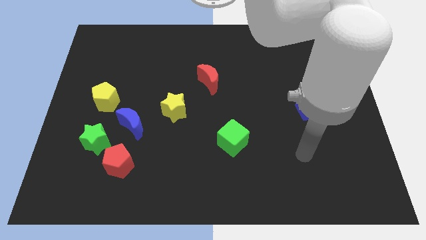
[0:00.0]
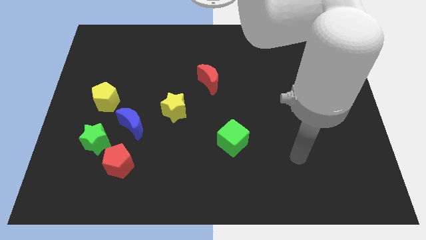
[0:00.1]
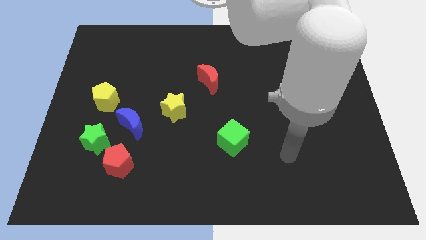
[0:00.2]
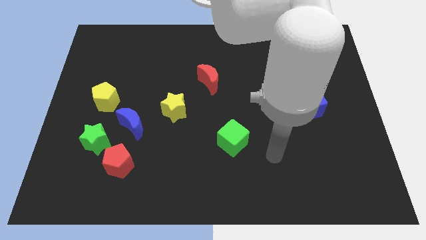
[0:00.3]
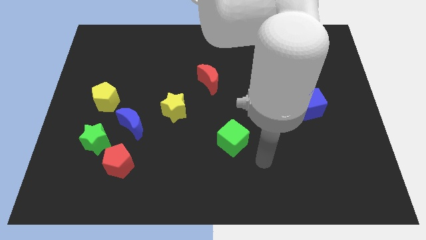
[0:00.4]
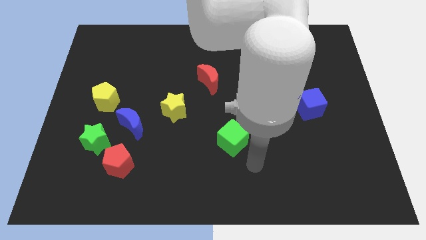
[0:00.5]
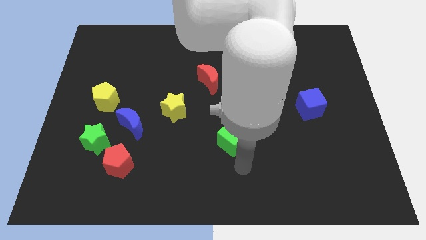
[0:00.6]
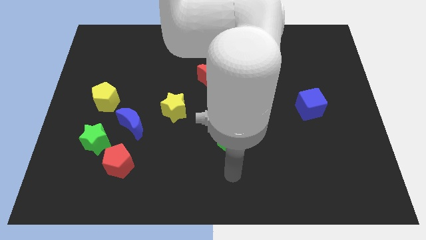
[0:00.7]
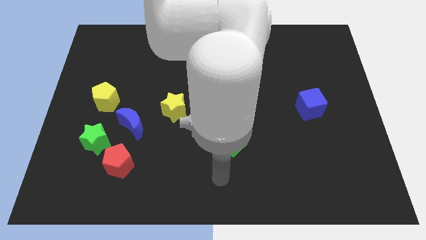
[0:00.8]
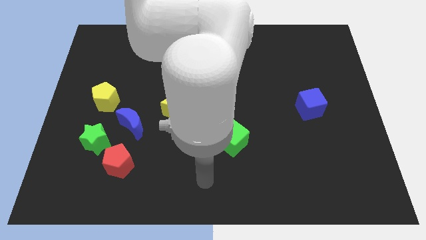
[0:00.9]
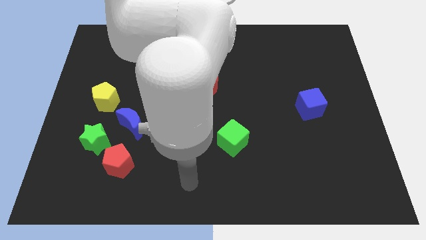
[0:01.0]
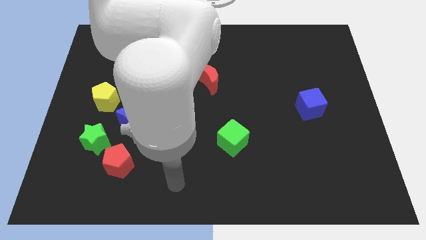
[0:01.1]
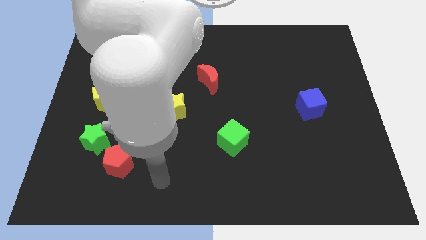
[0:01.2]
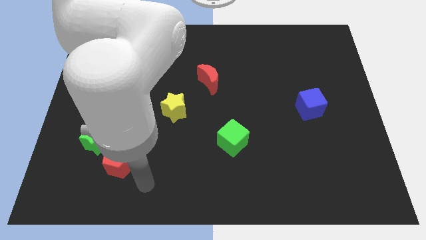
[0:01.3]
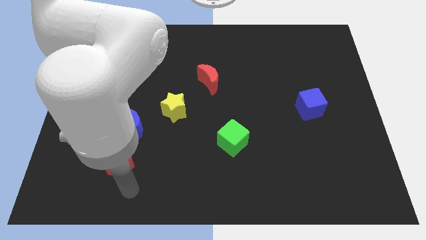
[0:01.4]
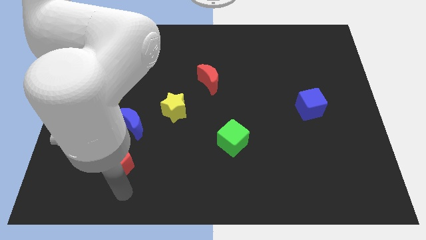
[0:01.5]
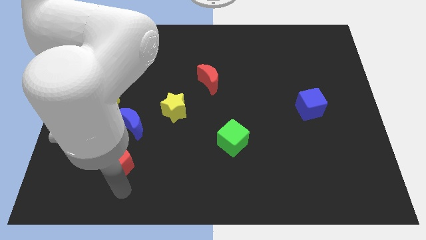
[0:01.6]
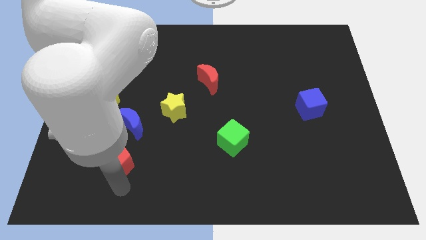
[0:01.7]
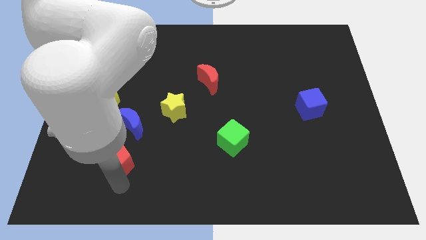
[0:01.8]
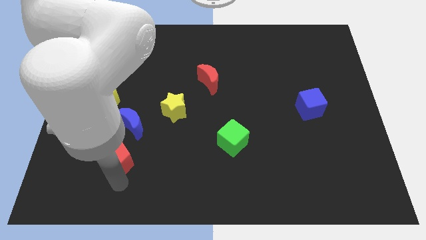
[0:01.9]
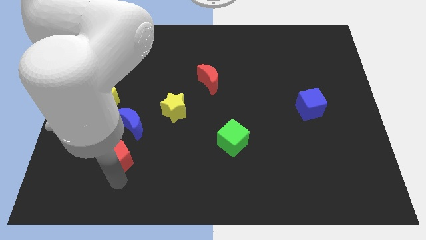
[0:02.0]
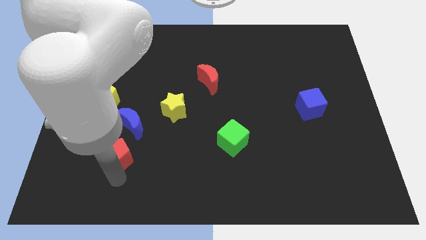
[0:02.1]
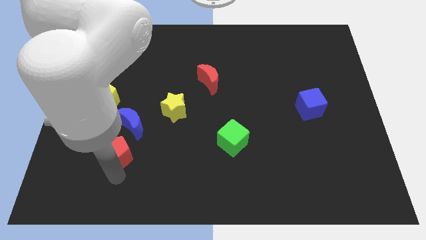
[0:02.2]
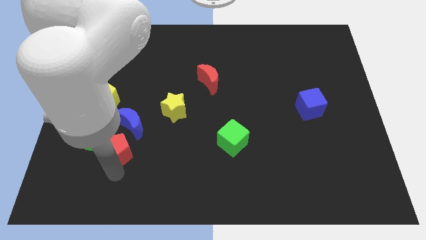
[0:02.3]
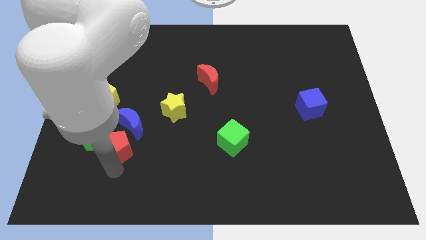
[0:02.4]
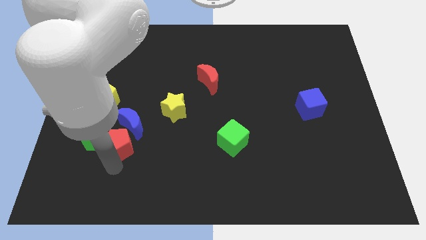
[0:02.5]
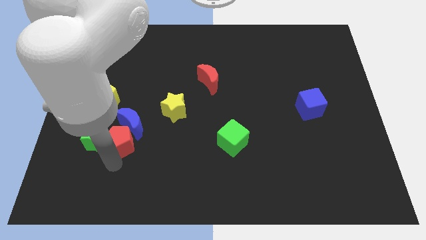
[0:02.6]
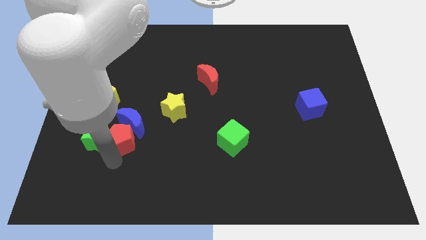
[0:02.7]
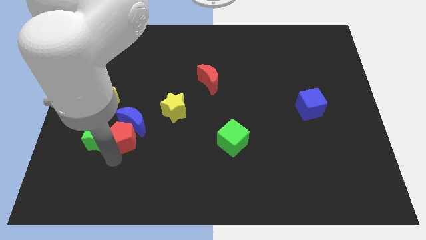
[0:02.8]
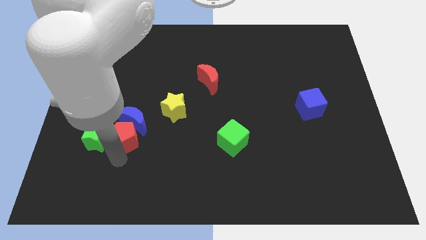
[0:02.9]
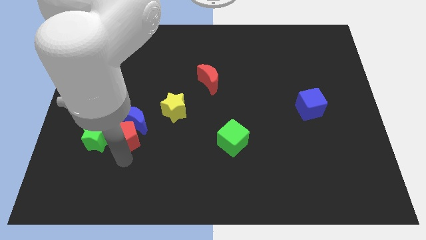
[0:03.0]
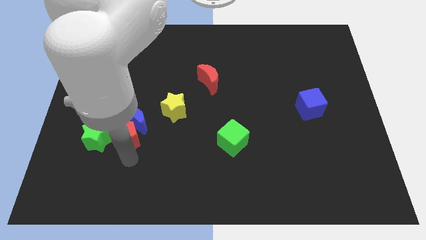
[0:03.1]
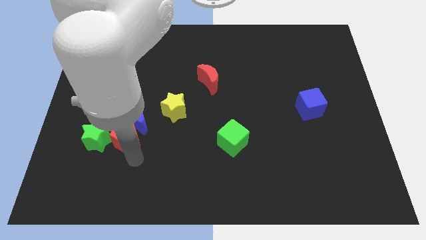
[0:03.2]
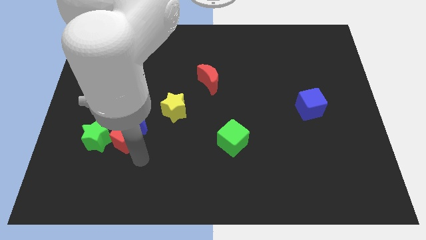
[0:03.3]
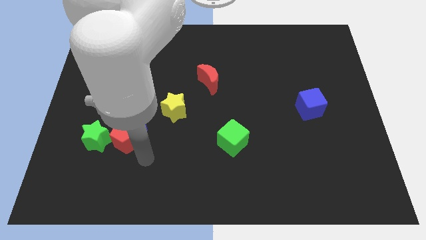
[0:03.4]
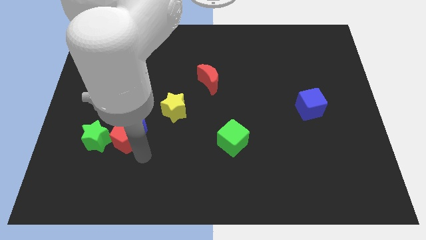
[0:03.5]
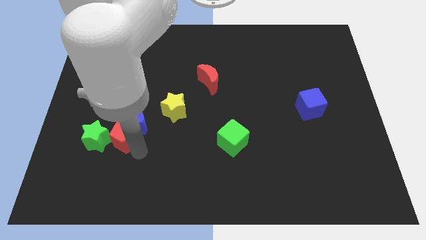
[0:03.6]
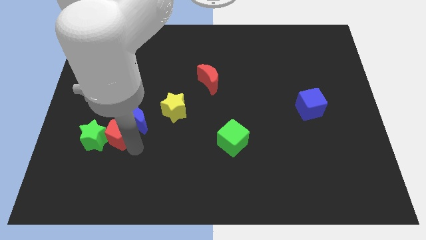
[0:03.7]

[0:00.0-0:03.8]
slide the red pentagon up slightly

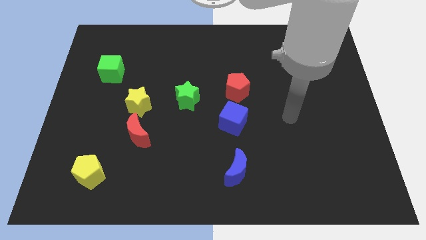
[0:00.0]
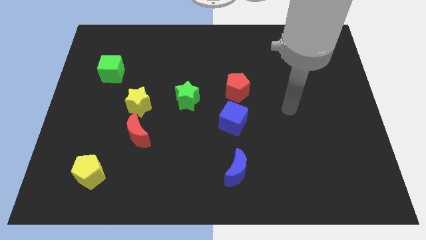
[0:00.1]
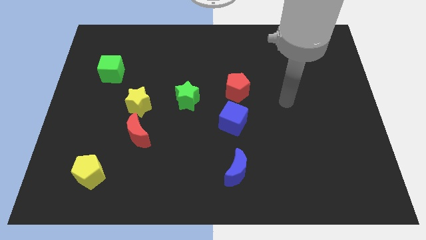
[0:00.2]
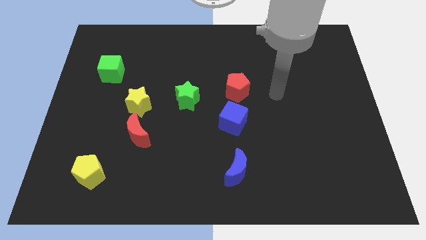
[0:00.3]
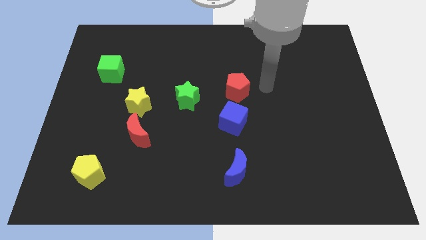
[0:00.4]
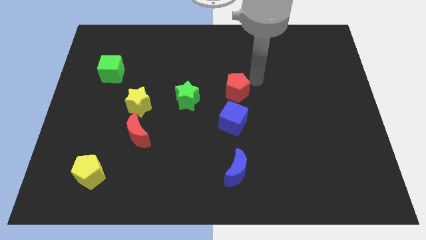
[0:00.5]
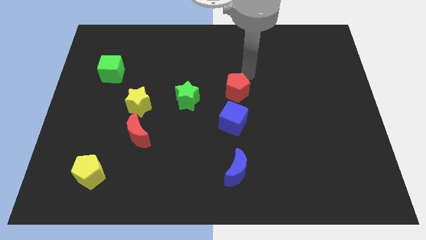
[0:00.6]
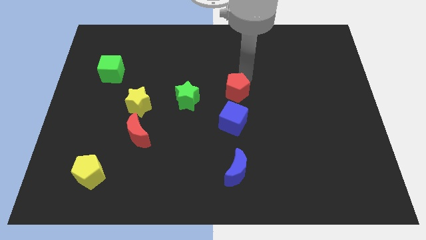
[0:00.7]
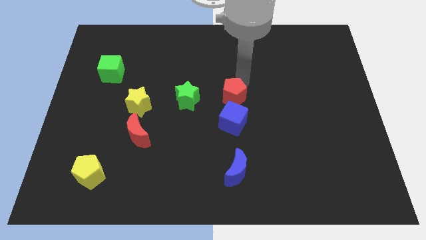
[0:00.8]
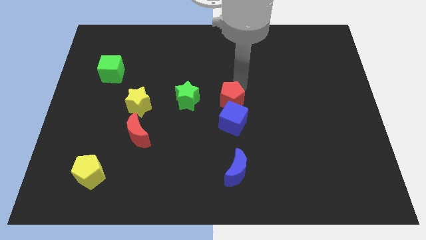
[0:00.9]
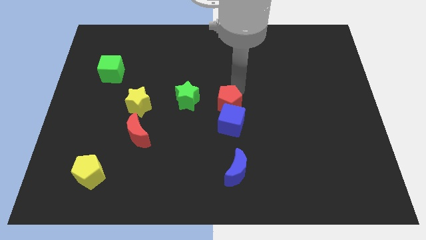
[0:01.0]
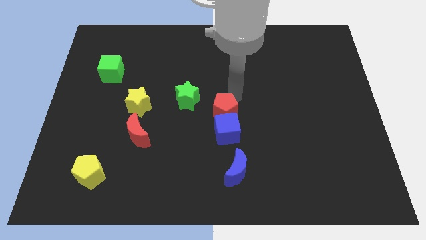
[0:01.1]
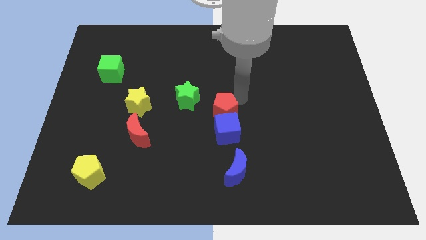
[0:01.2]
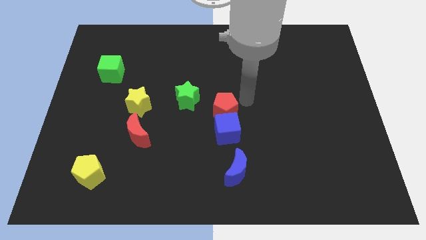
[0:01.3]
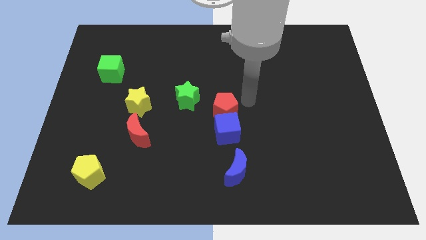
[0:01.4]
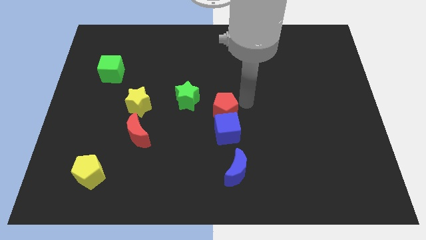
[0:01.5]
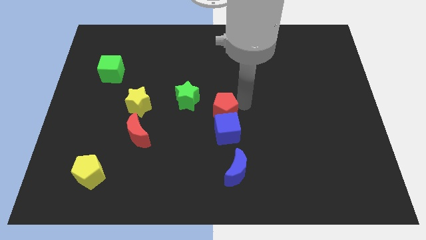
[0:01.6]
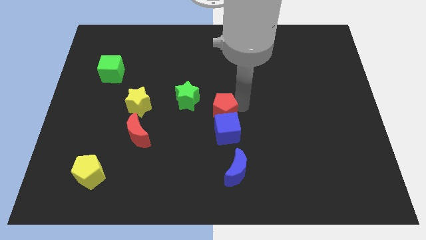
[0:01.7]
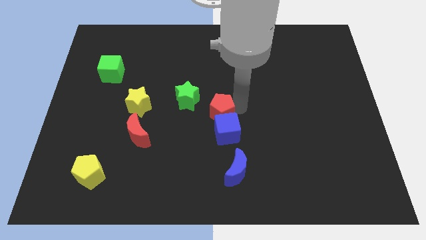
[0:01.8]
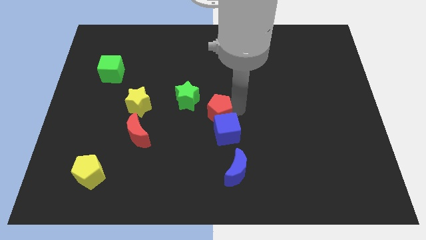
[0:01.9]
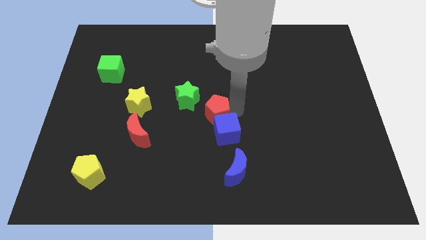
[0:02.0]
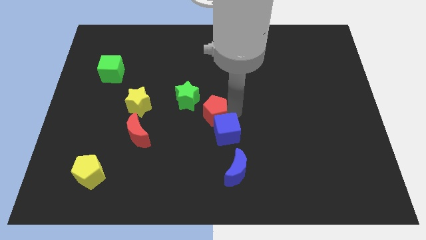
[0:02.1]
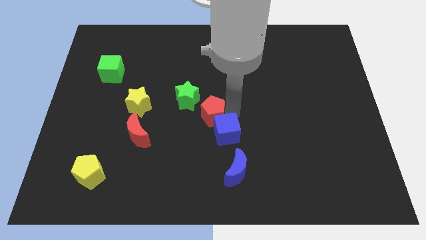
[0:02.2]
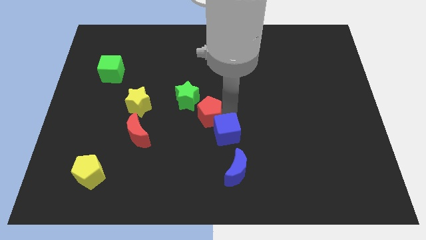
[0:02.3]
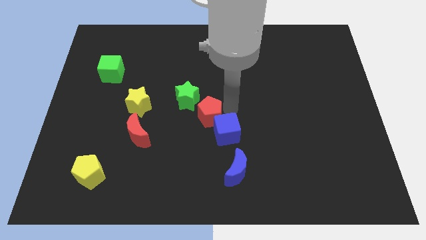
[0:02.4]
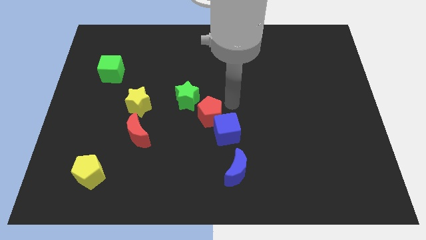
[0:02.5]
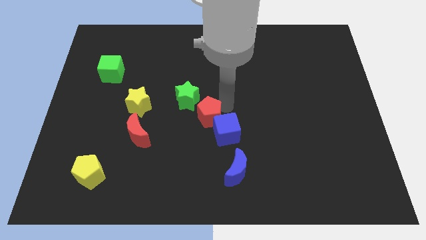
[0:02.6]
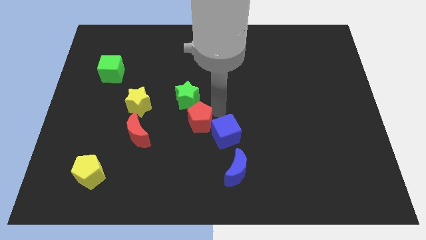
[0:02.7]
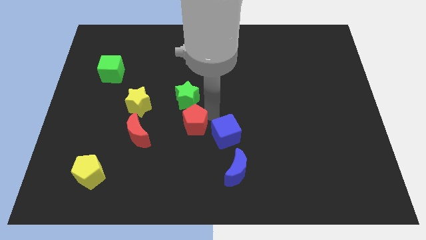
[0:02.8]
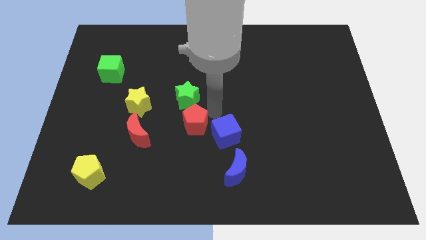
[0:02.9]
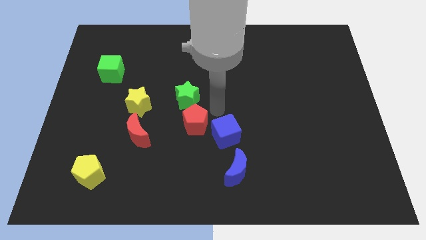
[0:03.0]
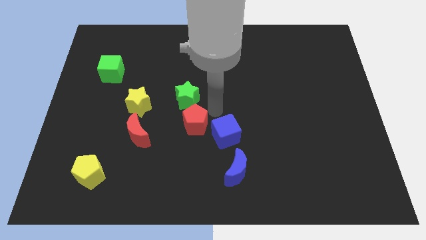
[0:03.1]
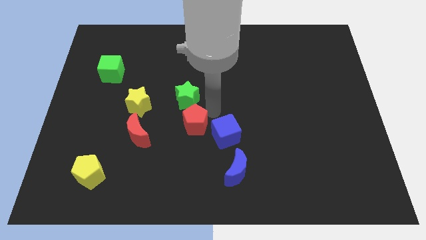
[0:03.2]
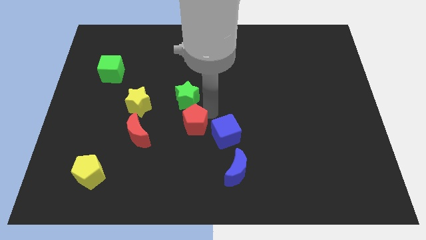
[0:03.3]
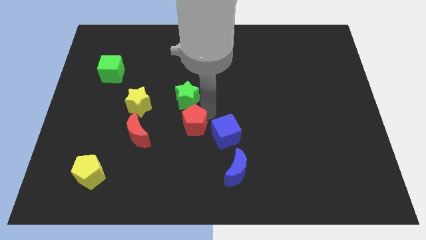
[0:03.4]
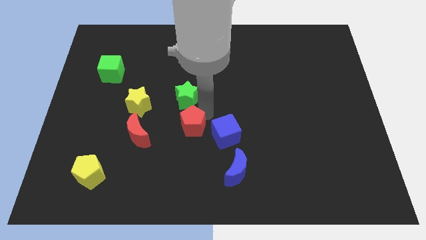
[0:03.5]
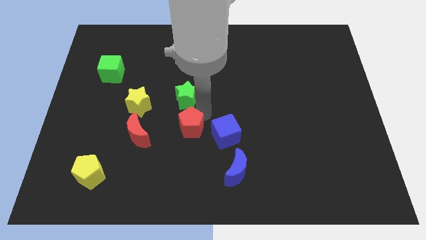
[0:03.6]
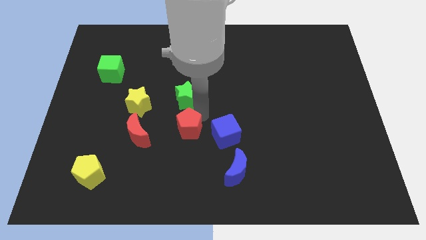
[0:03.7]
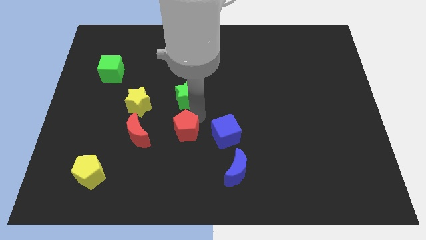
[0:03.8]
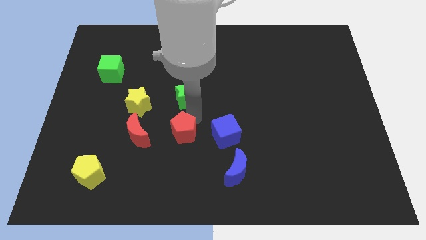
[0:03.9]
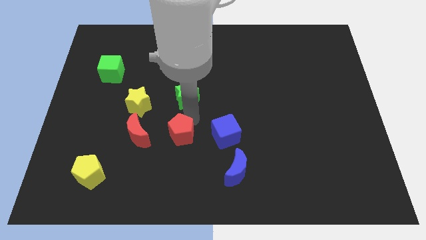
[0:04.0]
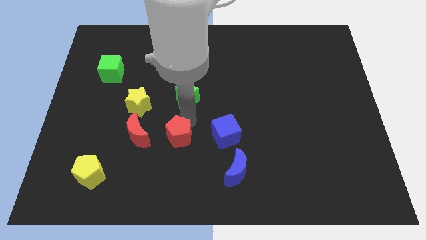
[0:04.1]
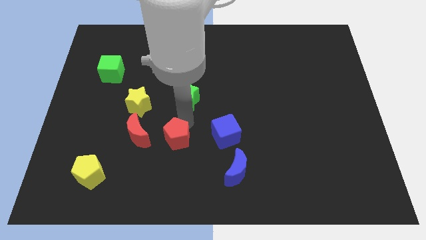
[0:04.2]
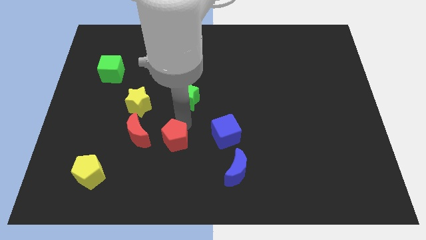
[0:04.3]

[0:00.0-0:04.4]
slide the red pentagon diagonally downwards and left
